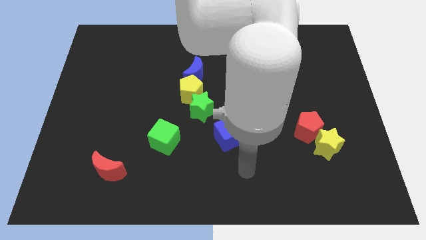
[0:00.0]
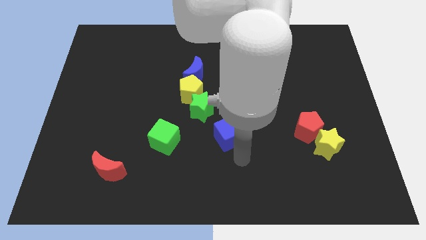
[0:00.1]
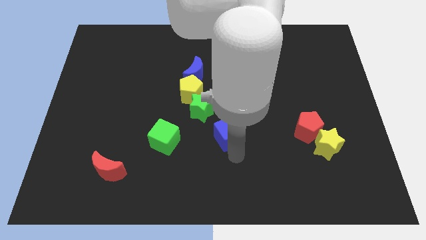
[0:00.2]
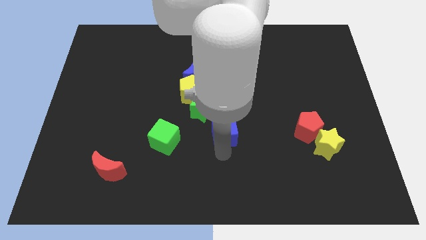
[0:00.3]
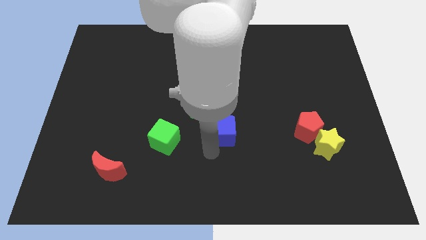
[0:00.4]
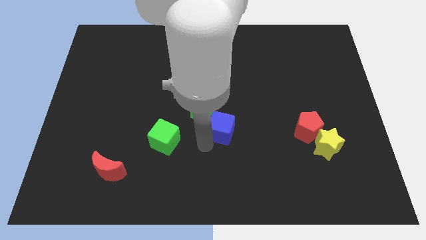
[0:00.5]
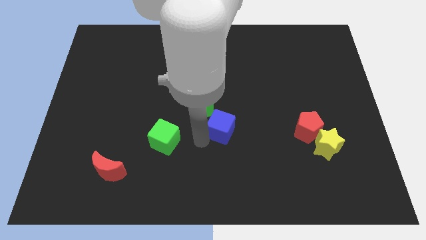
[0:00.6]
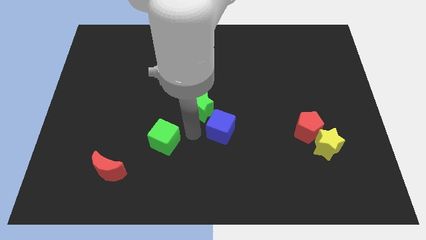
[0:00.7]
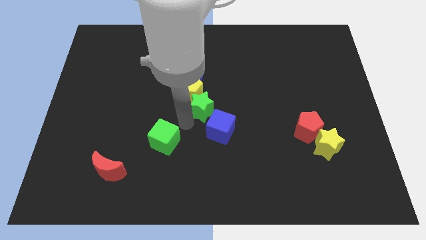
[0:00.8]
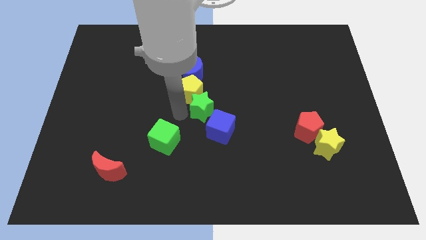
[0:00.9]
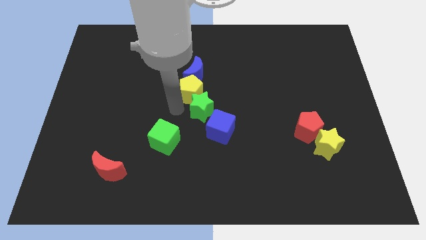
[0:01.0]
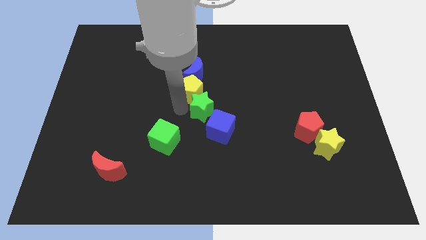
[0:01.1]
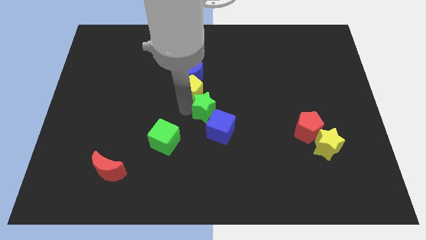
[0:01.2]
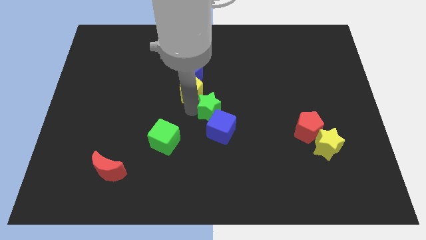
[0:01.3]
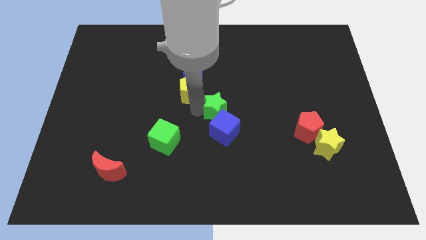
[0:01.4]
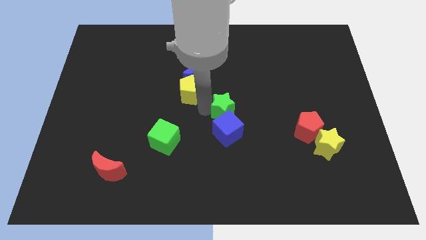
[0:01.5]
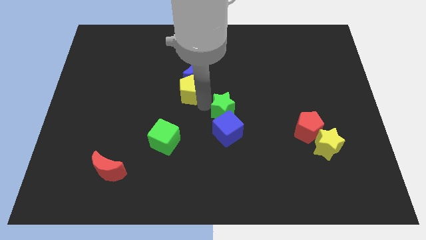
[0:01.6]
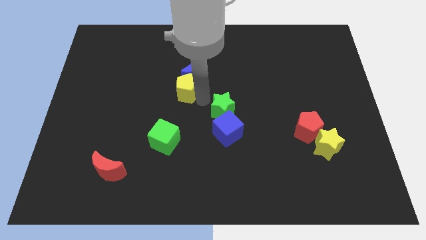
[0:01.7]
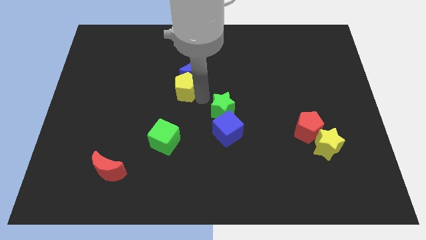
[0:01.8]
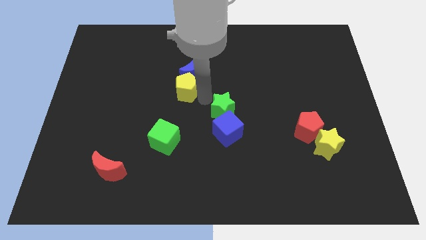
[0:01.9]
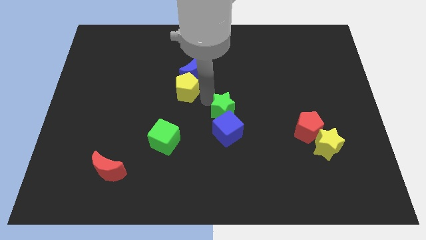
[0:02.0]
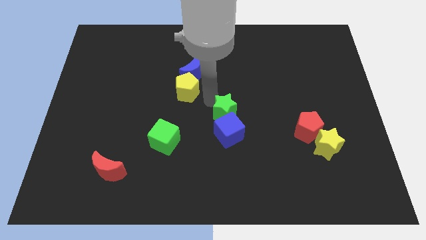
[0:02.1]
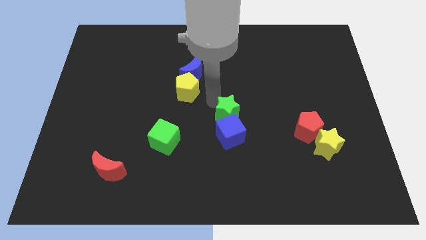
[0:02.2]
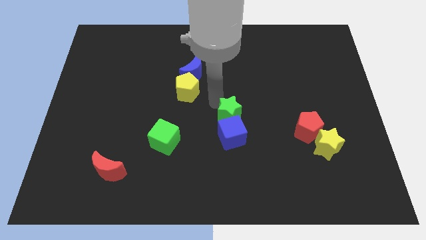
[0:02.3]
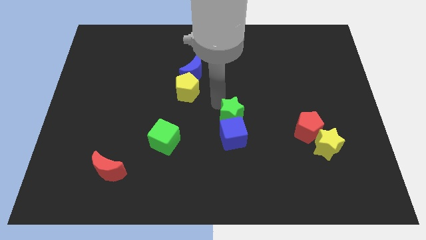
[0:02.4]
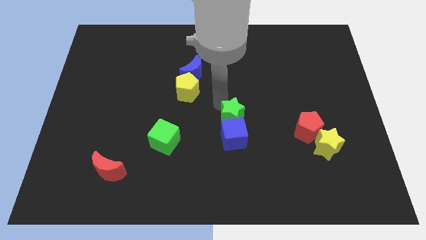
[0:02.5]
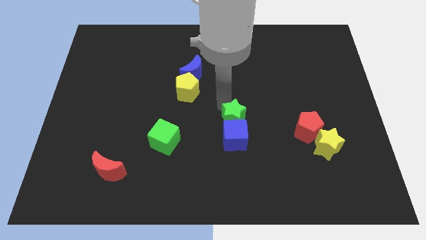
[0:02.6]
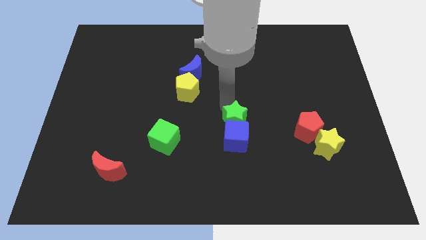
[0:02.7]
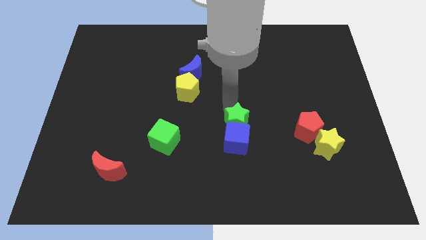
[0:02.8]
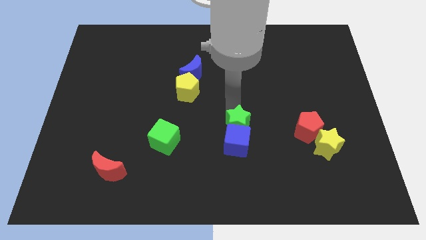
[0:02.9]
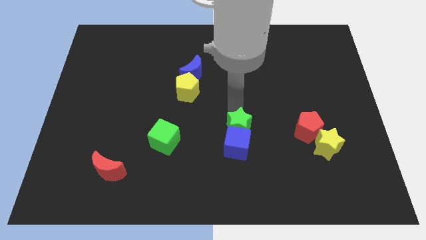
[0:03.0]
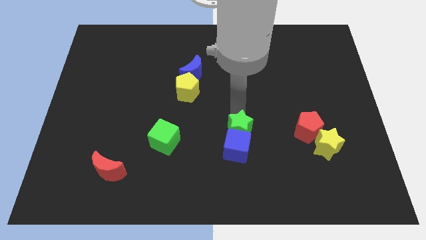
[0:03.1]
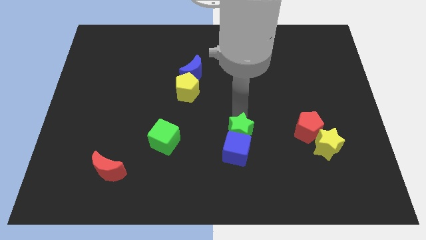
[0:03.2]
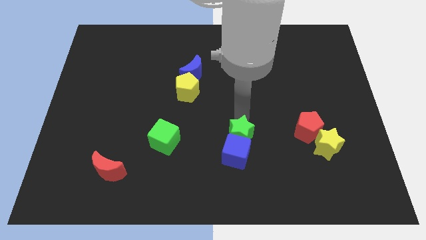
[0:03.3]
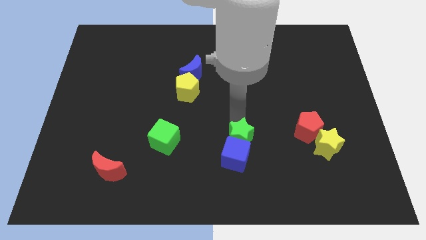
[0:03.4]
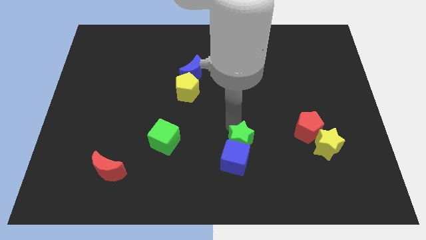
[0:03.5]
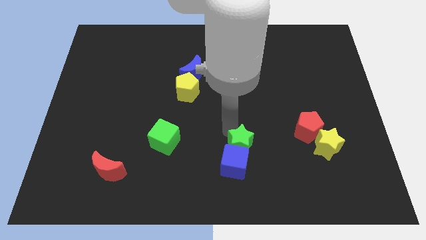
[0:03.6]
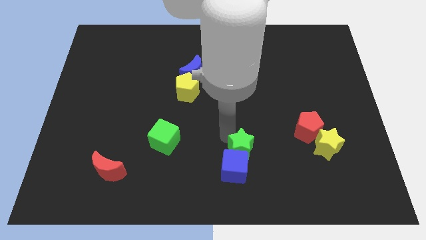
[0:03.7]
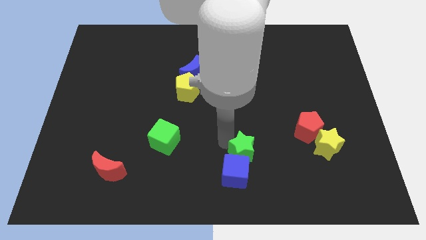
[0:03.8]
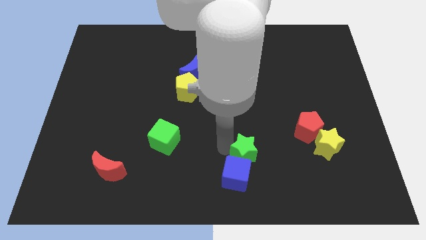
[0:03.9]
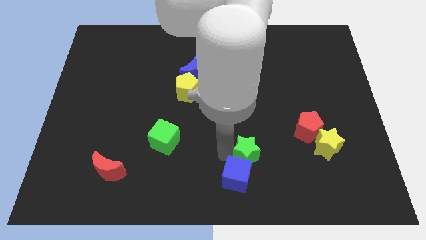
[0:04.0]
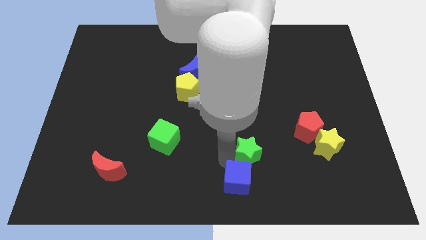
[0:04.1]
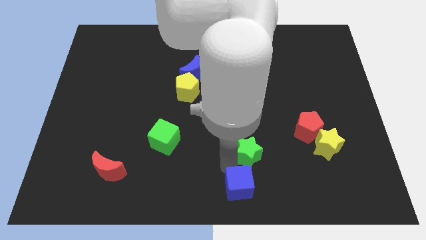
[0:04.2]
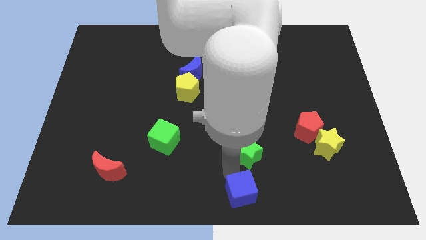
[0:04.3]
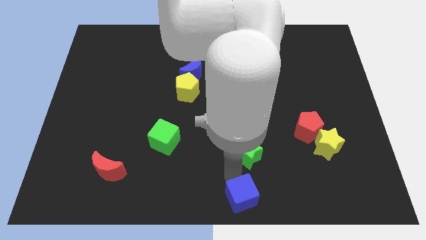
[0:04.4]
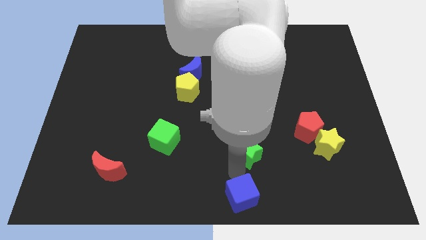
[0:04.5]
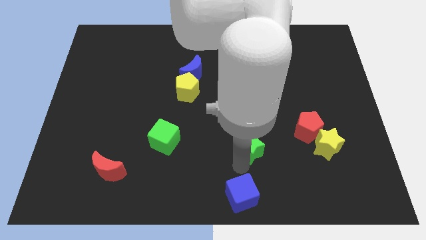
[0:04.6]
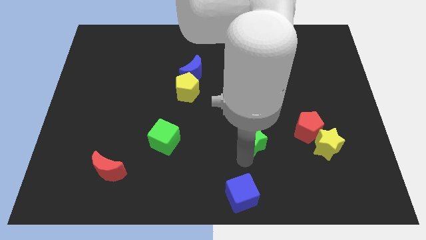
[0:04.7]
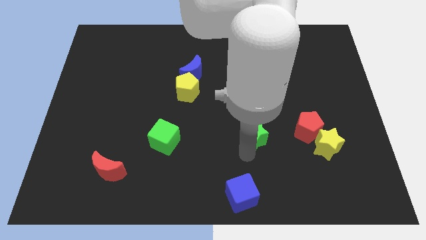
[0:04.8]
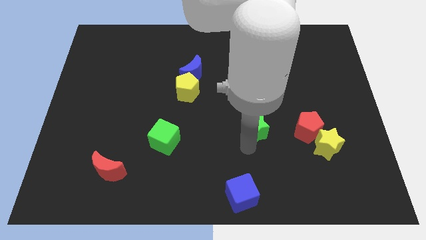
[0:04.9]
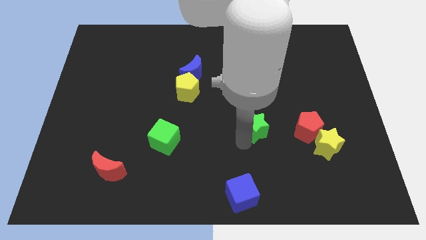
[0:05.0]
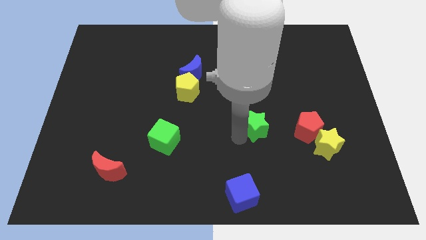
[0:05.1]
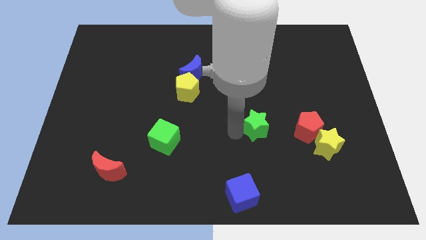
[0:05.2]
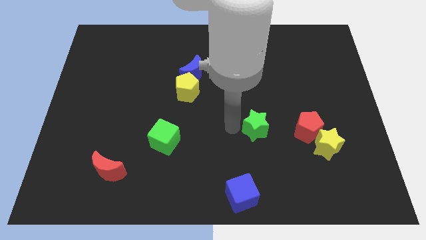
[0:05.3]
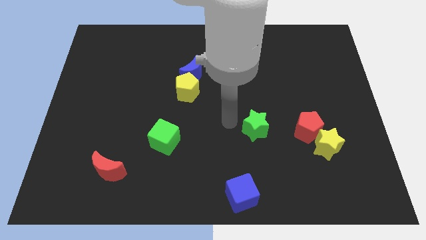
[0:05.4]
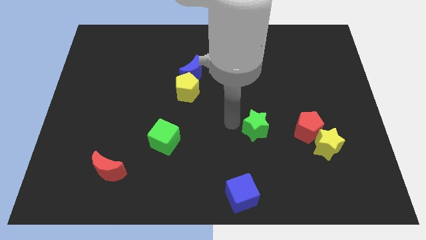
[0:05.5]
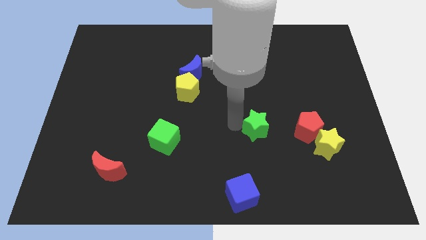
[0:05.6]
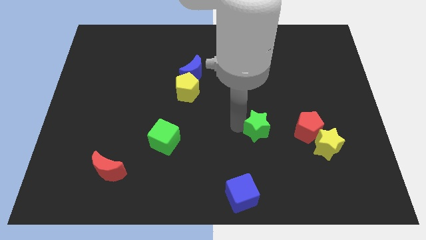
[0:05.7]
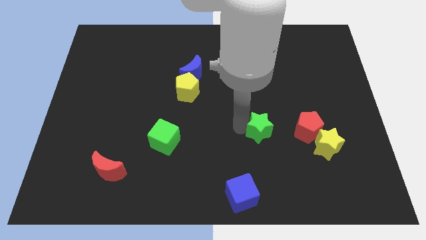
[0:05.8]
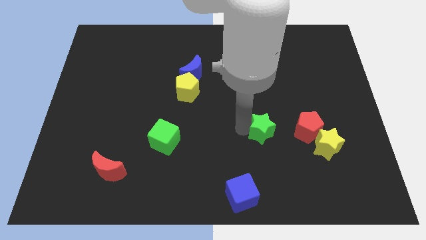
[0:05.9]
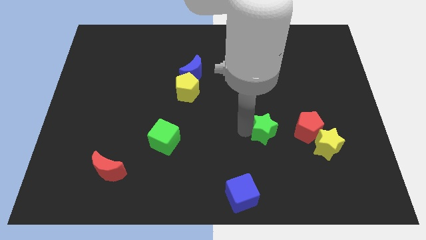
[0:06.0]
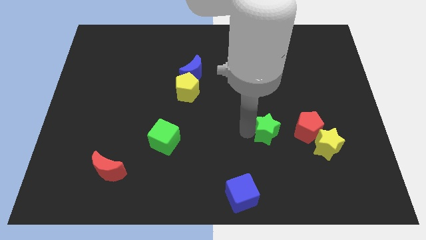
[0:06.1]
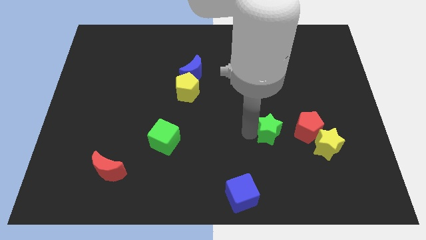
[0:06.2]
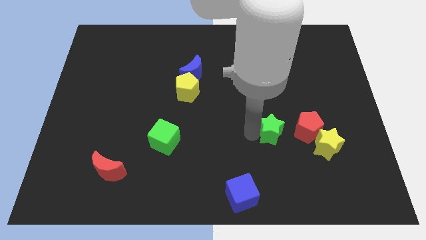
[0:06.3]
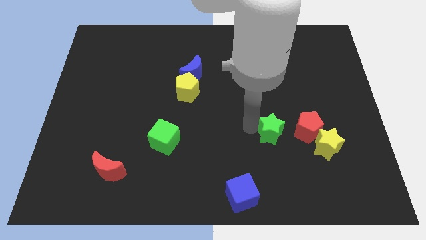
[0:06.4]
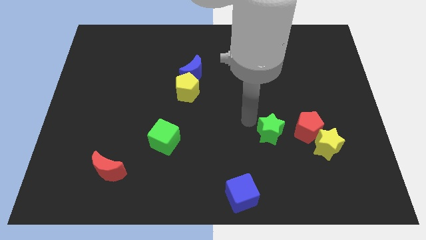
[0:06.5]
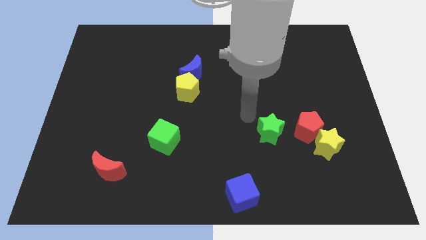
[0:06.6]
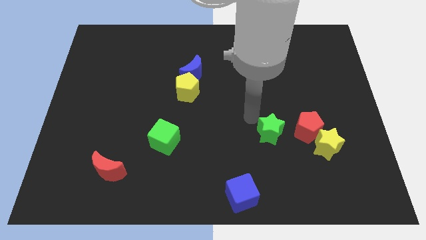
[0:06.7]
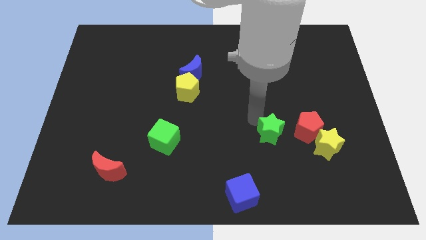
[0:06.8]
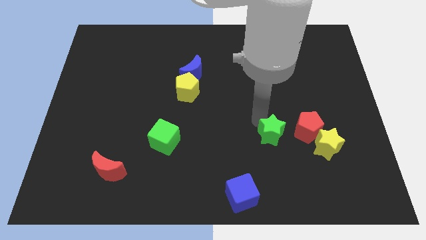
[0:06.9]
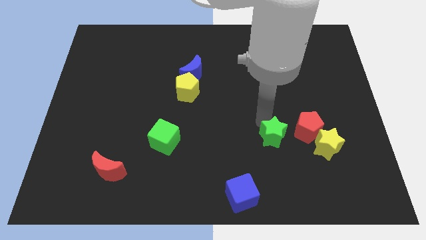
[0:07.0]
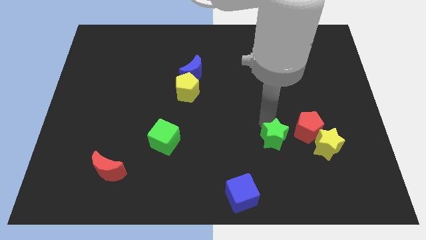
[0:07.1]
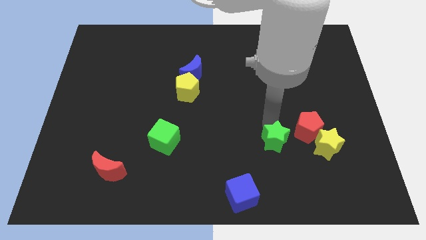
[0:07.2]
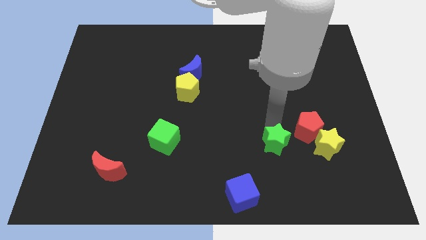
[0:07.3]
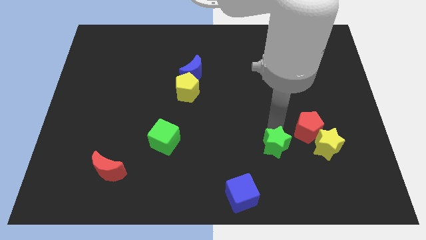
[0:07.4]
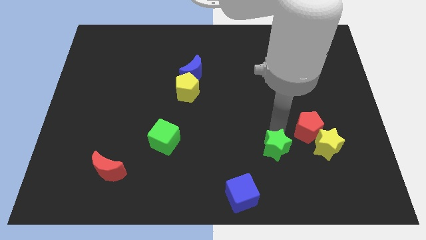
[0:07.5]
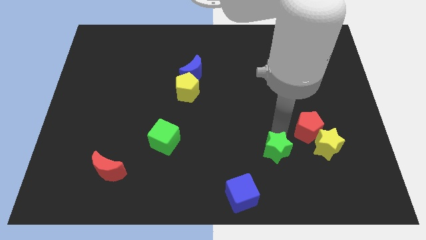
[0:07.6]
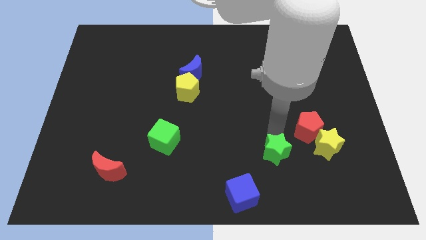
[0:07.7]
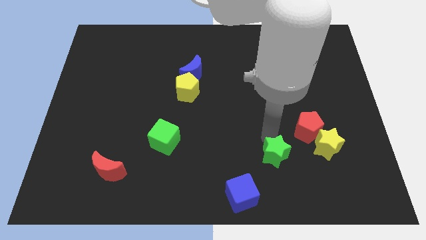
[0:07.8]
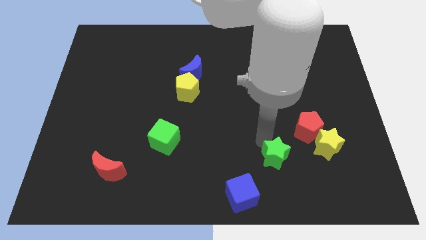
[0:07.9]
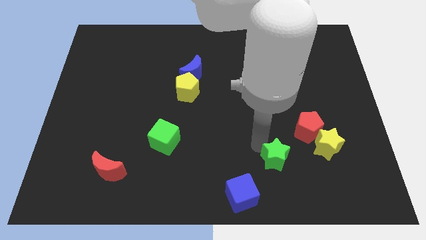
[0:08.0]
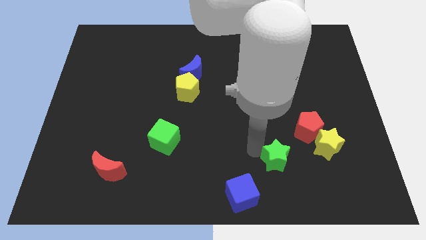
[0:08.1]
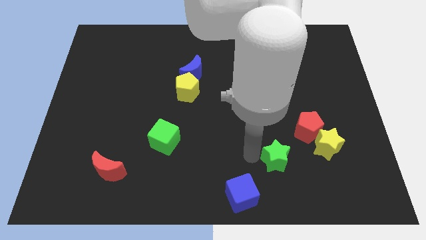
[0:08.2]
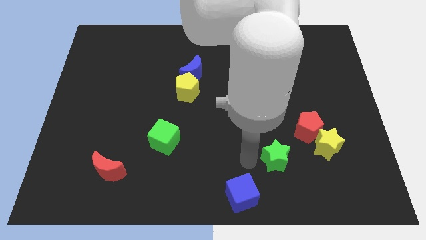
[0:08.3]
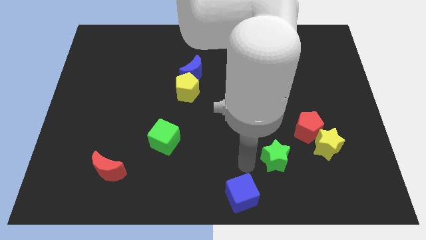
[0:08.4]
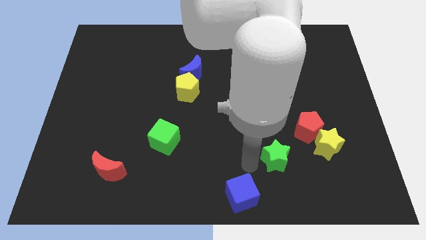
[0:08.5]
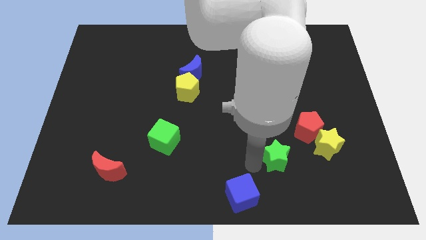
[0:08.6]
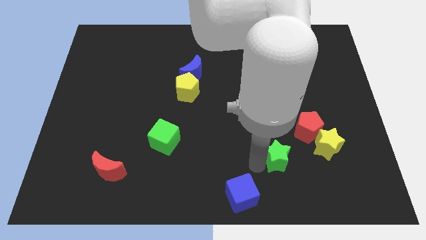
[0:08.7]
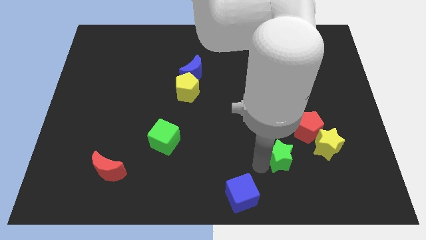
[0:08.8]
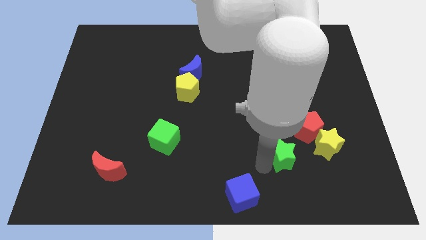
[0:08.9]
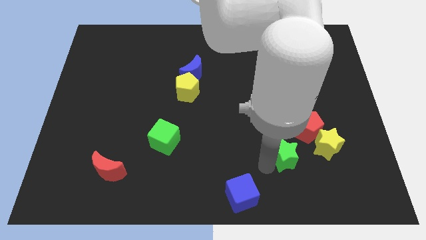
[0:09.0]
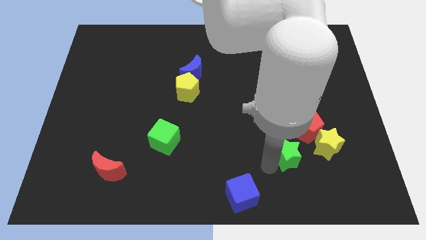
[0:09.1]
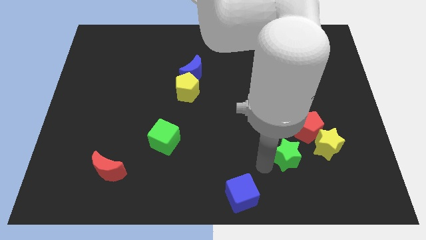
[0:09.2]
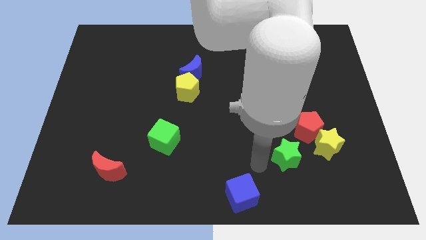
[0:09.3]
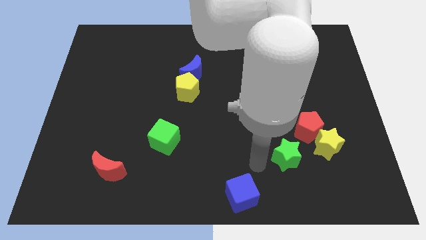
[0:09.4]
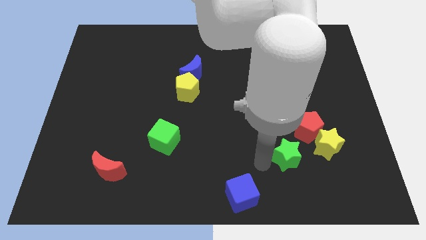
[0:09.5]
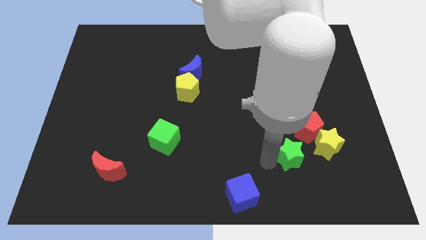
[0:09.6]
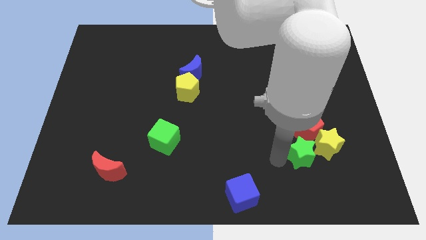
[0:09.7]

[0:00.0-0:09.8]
move the green star to the yellow star
